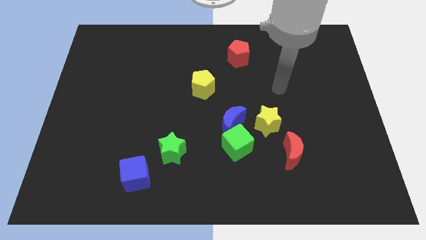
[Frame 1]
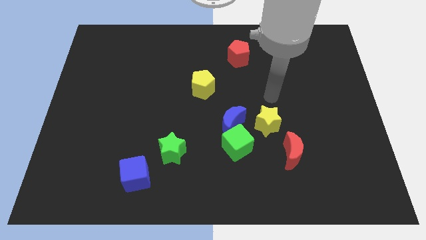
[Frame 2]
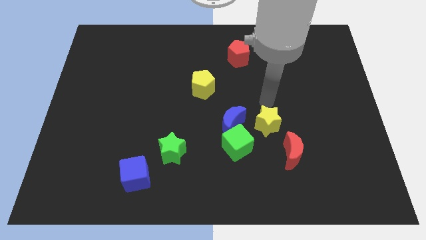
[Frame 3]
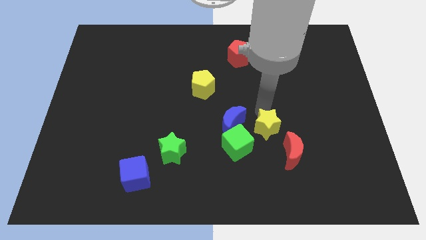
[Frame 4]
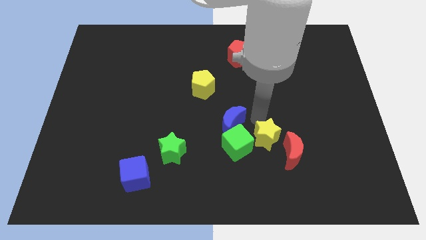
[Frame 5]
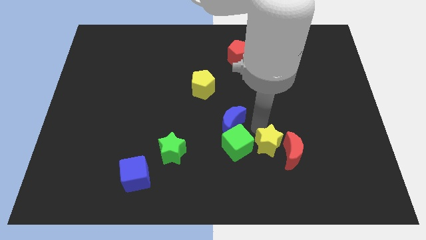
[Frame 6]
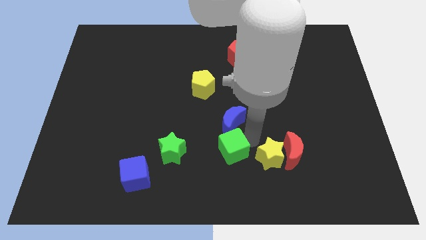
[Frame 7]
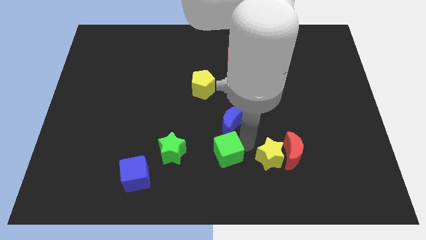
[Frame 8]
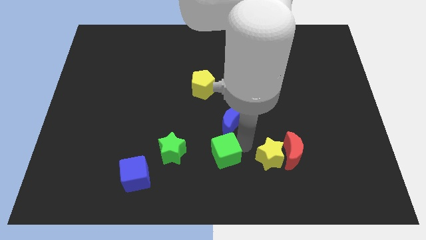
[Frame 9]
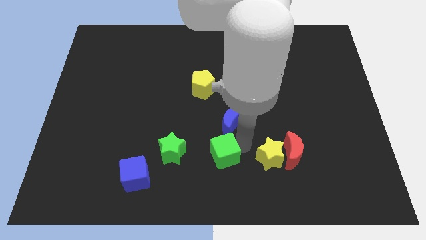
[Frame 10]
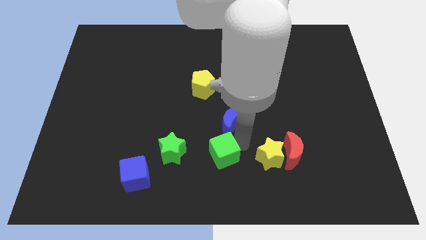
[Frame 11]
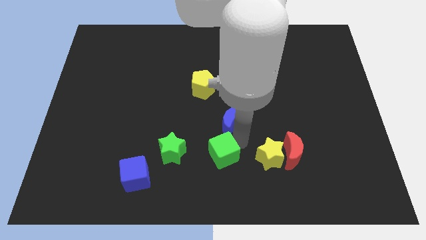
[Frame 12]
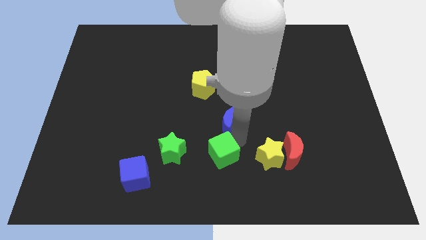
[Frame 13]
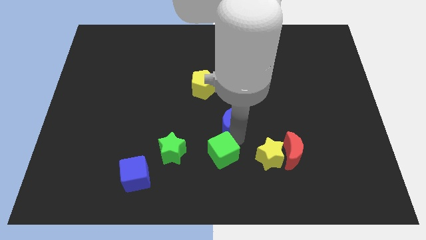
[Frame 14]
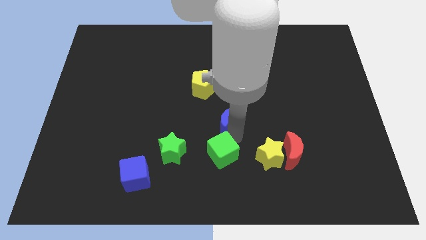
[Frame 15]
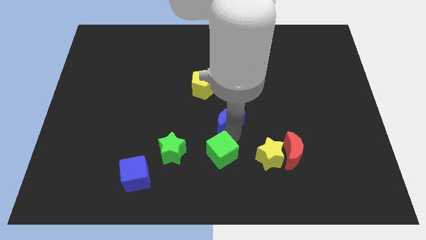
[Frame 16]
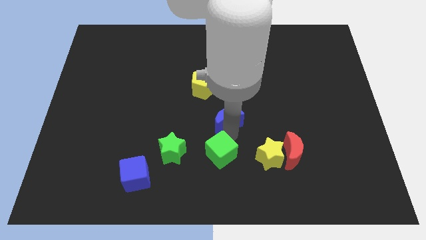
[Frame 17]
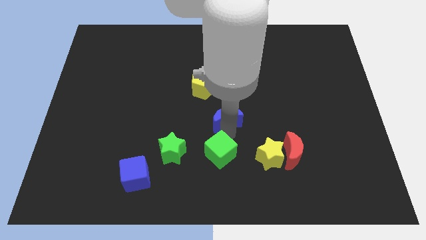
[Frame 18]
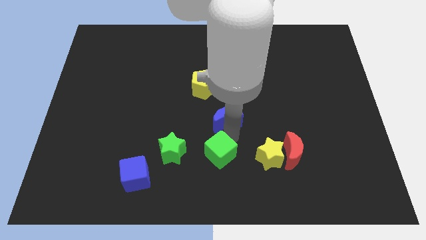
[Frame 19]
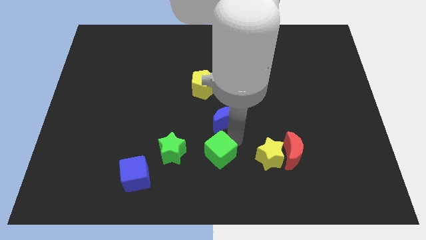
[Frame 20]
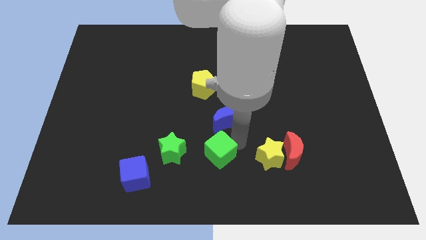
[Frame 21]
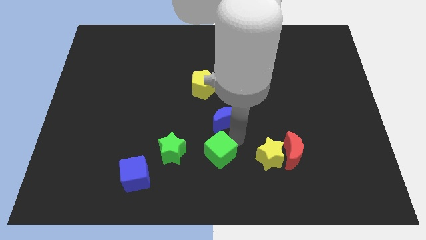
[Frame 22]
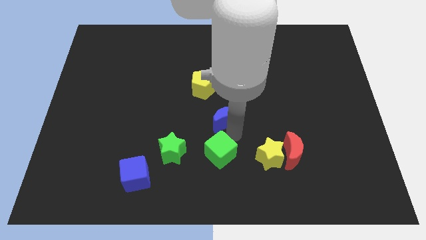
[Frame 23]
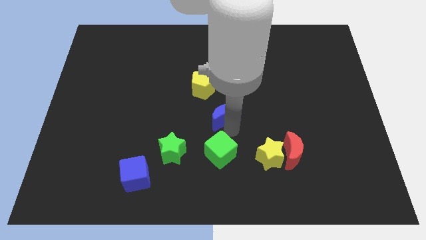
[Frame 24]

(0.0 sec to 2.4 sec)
pull the blue moon apart from the green cube and yellow star

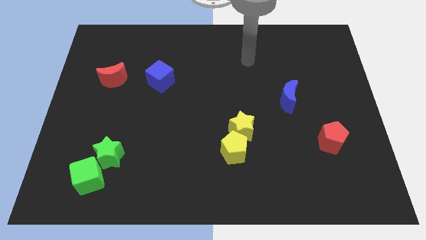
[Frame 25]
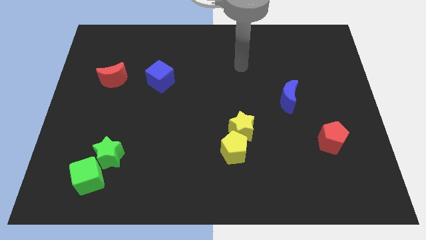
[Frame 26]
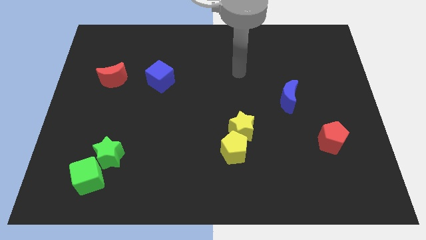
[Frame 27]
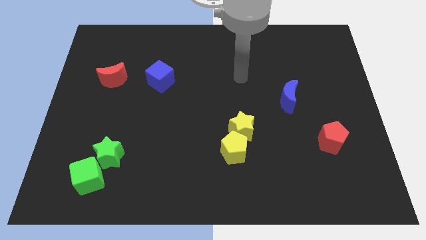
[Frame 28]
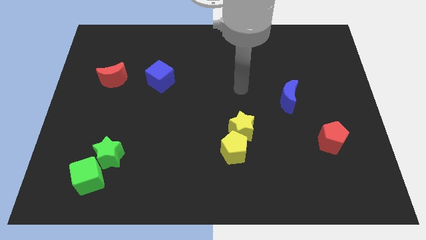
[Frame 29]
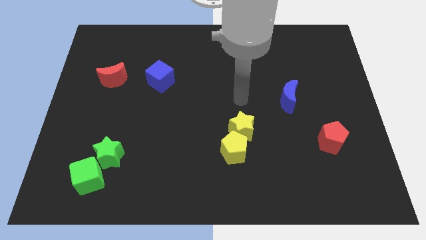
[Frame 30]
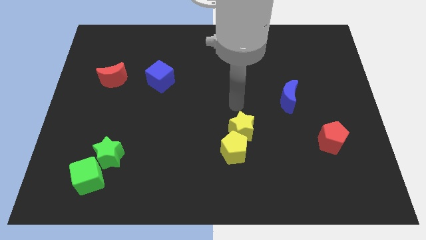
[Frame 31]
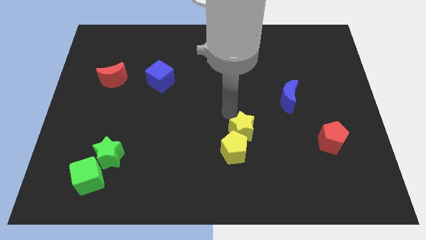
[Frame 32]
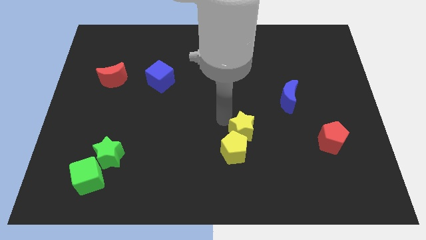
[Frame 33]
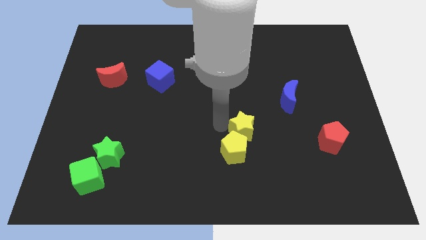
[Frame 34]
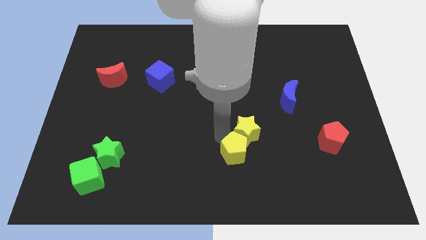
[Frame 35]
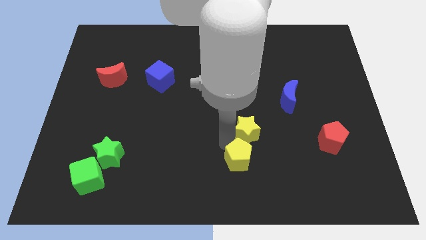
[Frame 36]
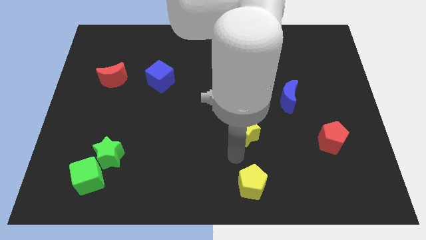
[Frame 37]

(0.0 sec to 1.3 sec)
separate the yellow star from the yellow pentagon

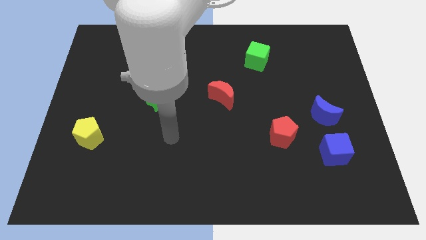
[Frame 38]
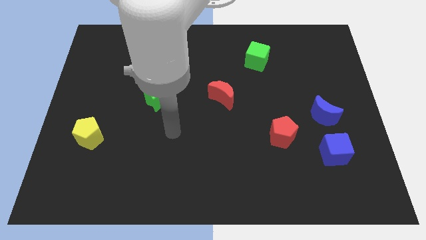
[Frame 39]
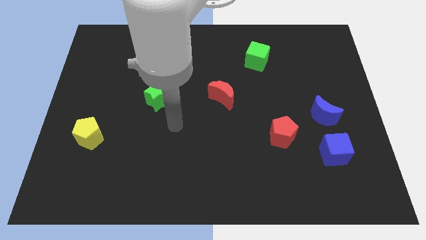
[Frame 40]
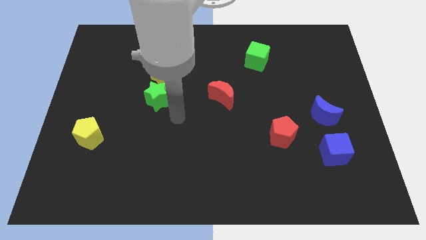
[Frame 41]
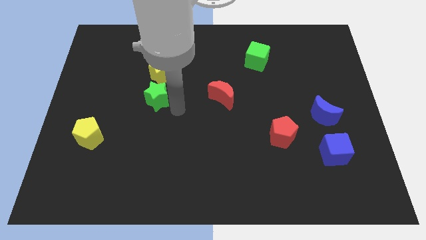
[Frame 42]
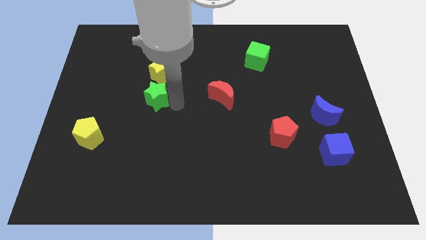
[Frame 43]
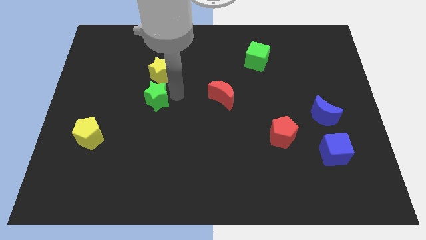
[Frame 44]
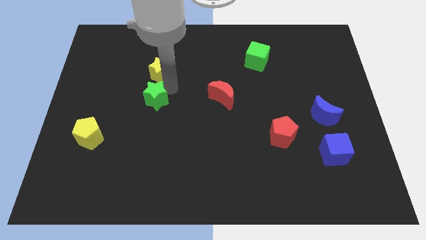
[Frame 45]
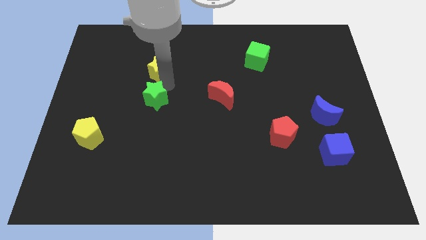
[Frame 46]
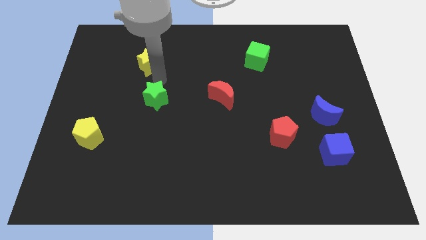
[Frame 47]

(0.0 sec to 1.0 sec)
move the green star away from the yellow star

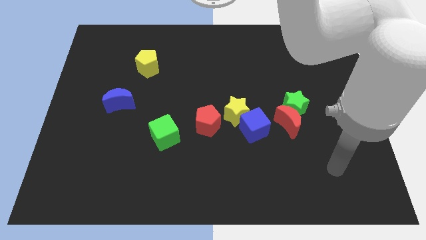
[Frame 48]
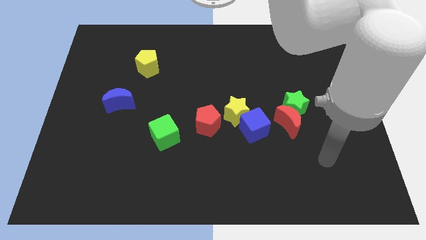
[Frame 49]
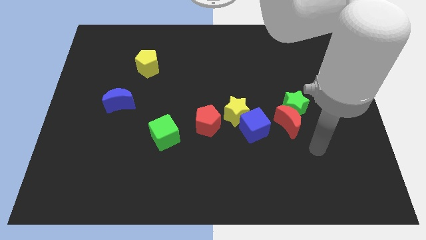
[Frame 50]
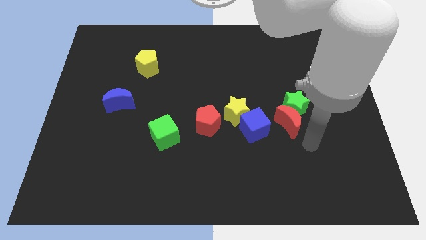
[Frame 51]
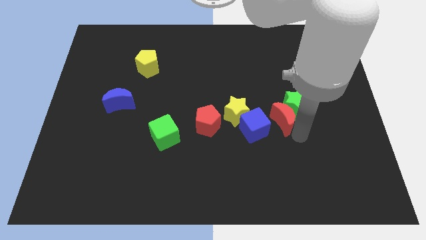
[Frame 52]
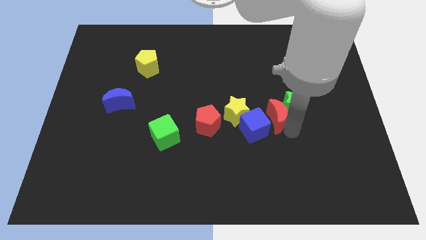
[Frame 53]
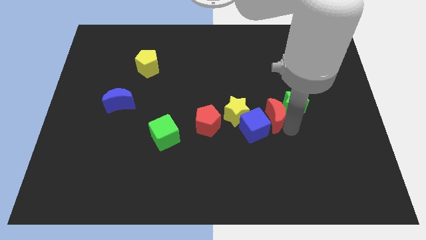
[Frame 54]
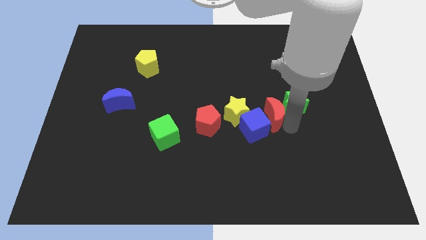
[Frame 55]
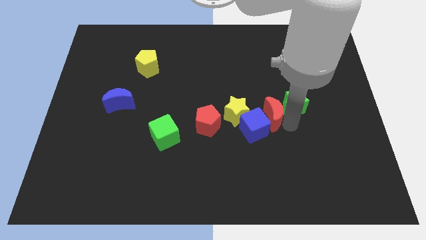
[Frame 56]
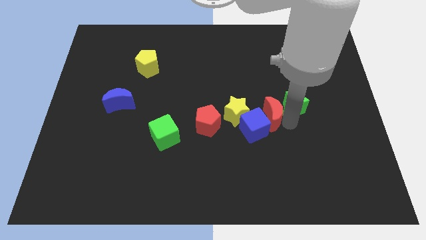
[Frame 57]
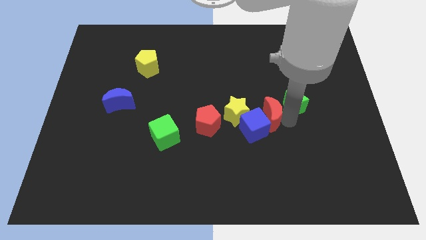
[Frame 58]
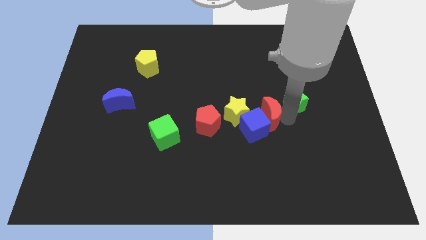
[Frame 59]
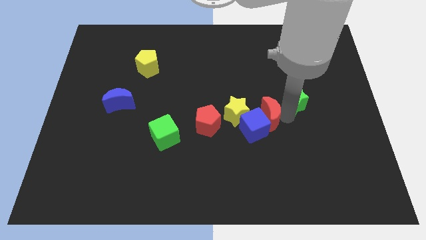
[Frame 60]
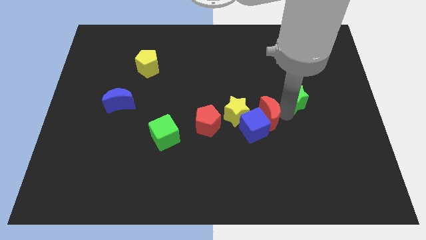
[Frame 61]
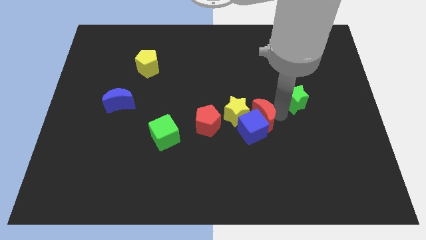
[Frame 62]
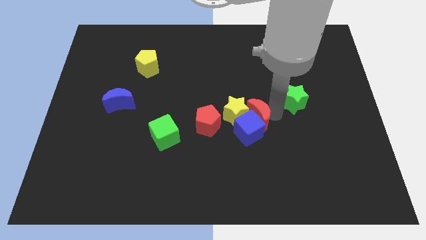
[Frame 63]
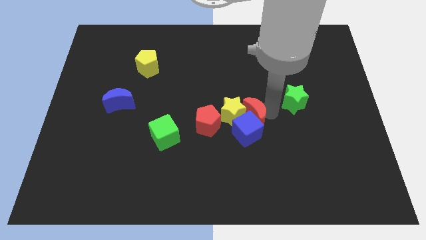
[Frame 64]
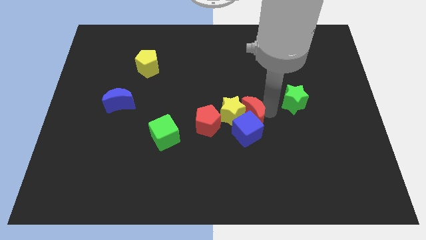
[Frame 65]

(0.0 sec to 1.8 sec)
separate the green star from the red moon

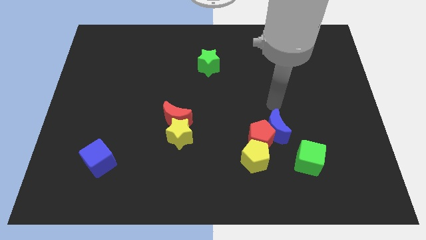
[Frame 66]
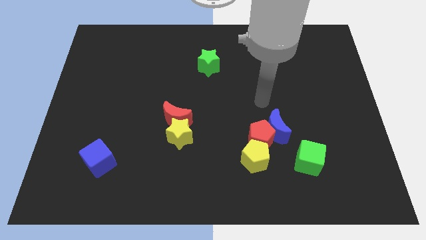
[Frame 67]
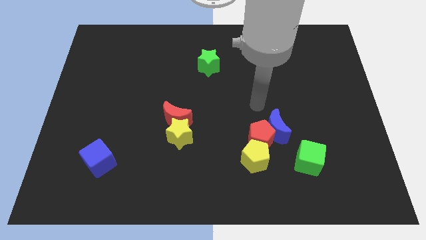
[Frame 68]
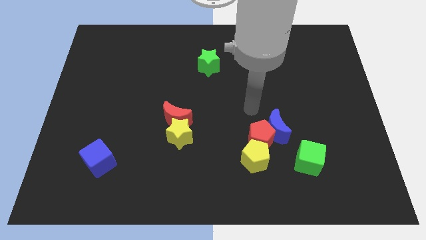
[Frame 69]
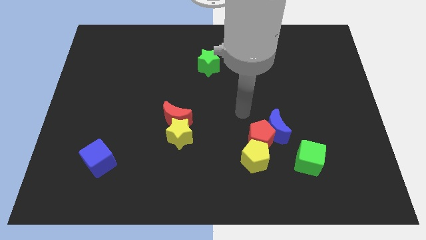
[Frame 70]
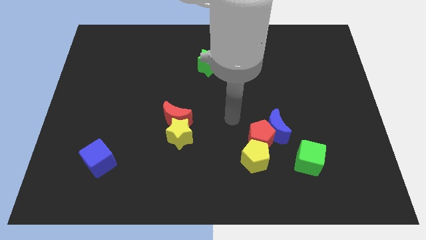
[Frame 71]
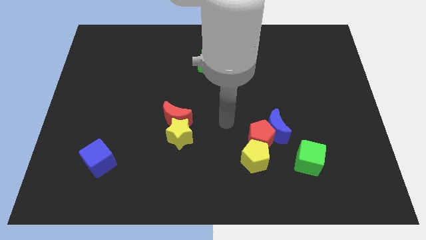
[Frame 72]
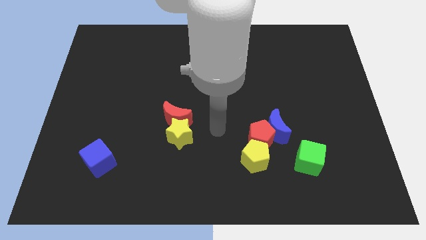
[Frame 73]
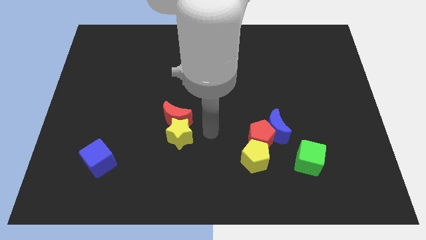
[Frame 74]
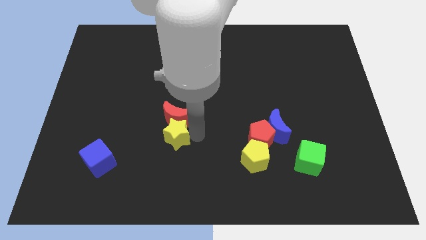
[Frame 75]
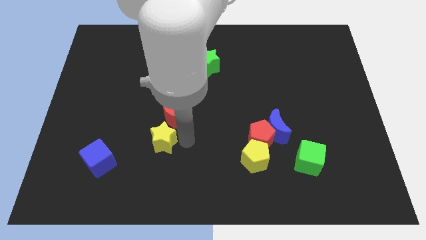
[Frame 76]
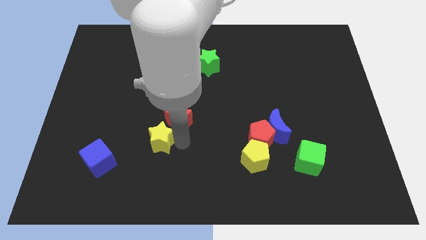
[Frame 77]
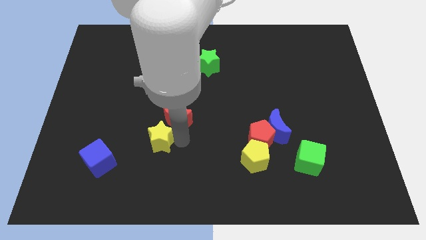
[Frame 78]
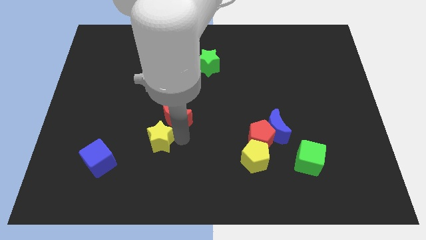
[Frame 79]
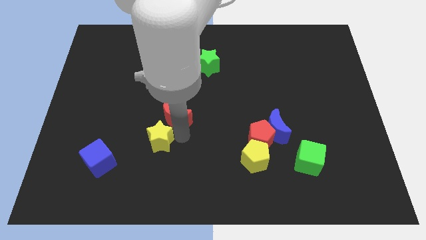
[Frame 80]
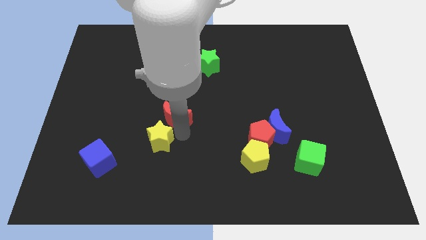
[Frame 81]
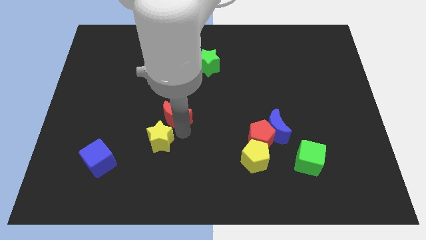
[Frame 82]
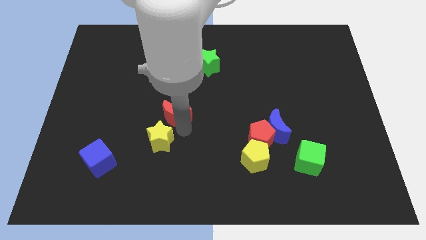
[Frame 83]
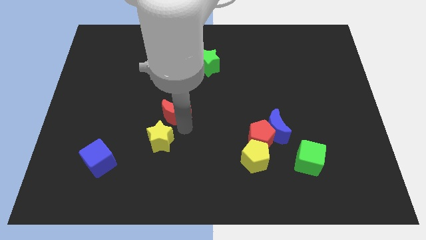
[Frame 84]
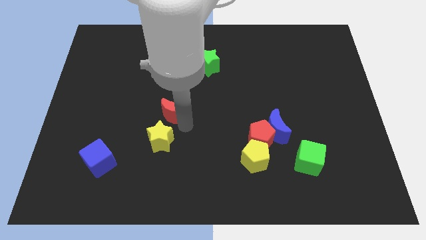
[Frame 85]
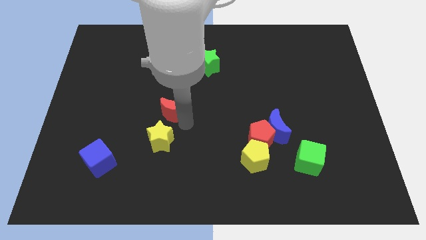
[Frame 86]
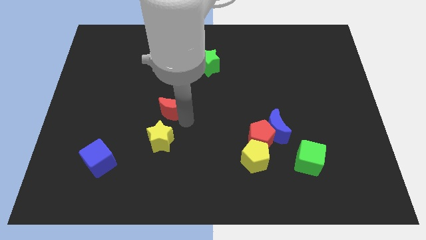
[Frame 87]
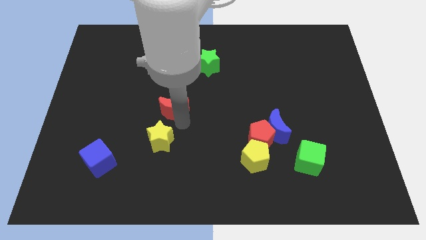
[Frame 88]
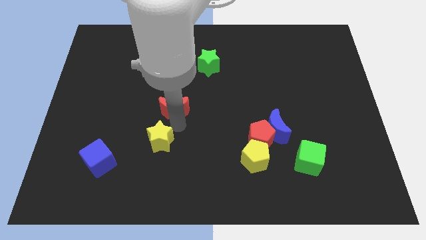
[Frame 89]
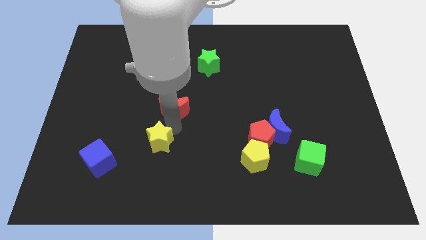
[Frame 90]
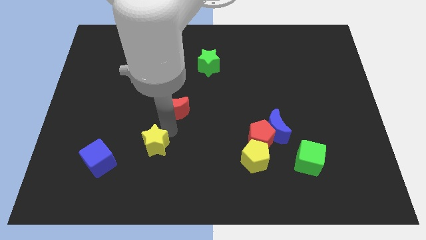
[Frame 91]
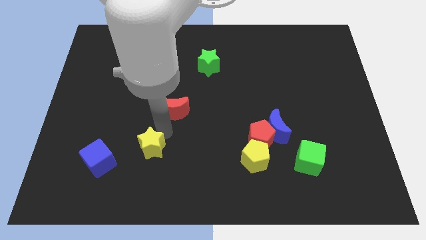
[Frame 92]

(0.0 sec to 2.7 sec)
move the red moon away from the yellow star

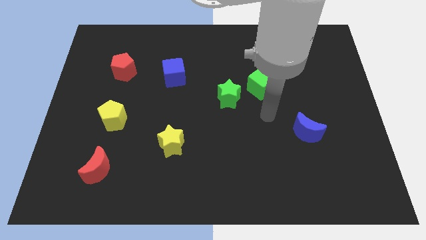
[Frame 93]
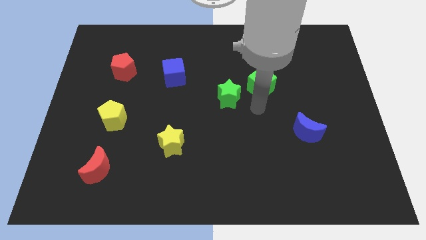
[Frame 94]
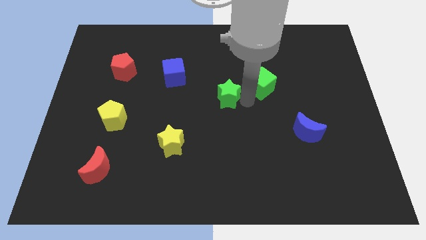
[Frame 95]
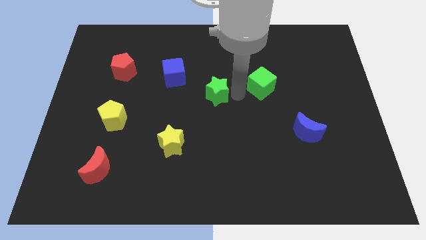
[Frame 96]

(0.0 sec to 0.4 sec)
separate the green cube from the green star
